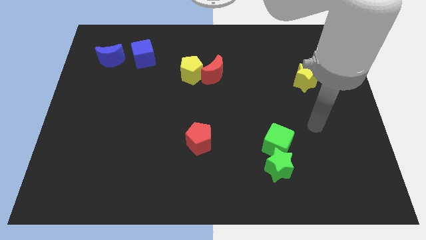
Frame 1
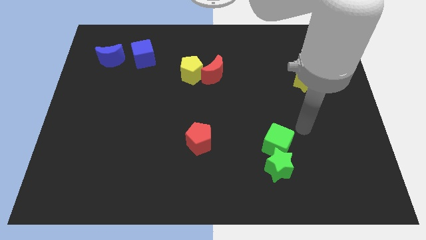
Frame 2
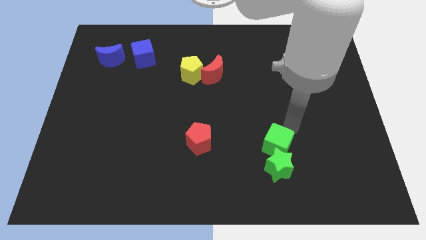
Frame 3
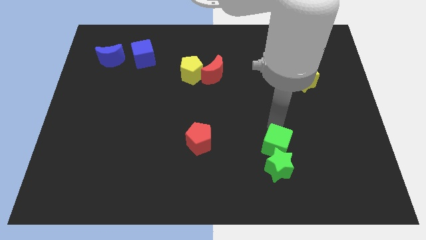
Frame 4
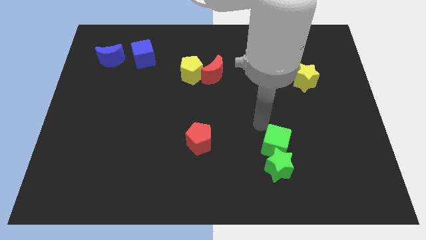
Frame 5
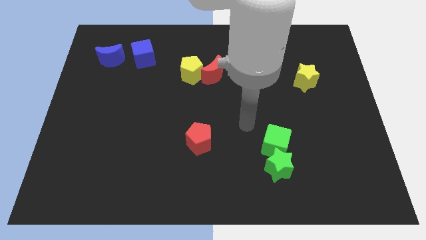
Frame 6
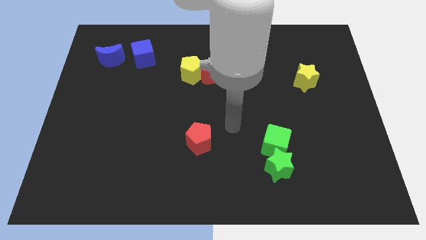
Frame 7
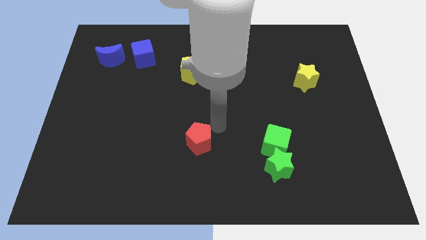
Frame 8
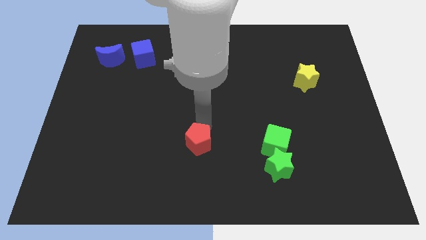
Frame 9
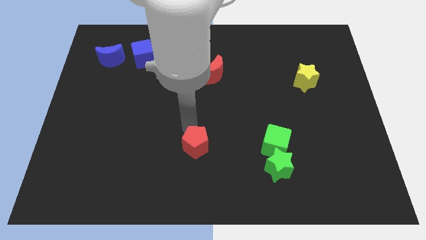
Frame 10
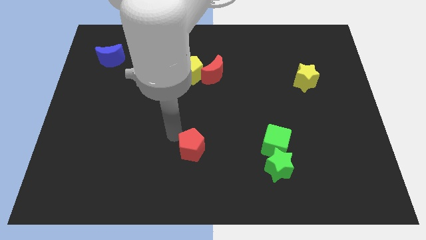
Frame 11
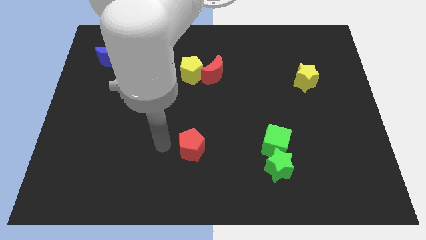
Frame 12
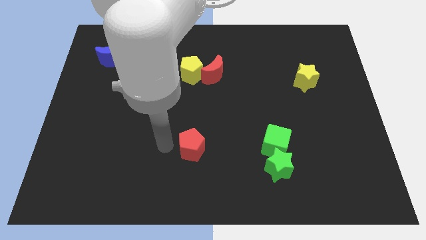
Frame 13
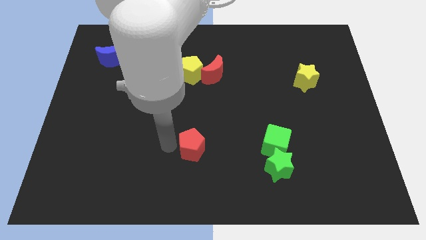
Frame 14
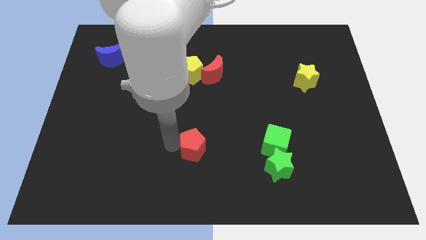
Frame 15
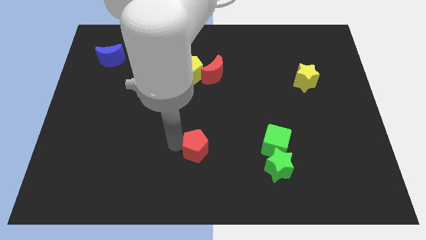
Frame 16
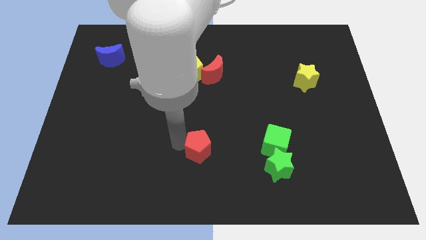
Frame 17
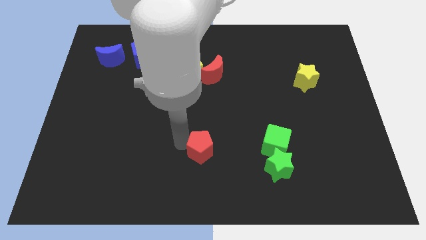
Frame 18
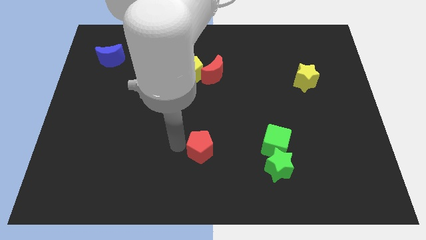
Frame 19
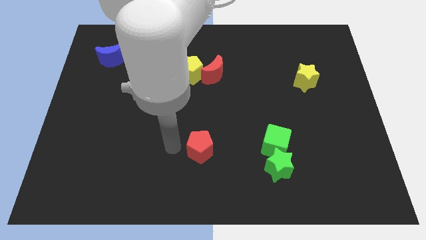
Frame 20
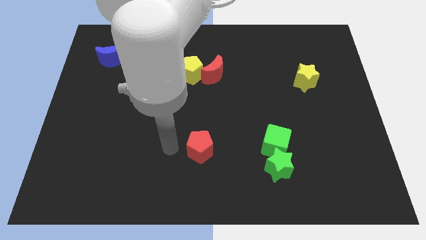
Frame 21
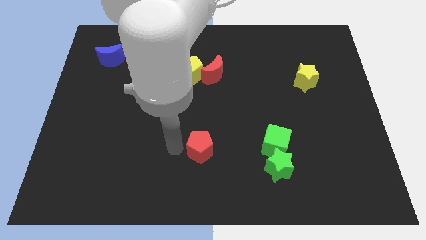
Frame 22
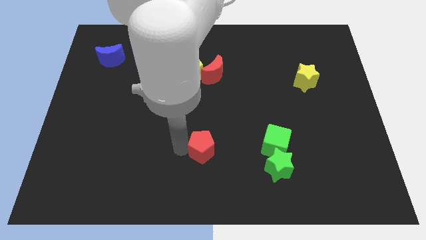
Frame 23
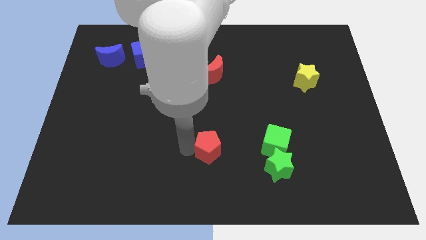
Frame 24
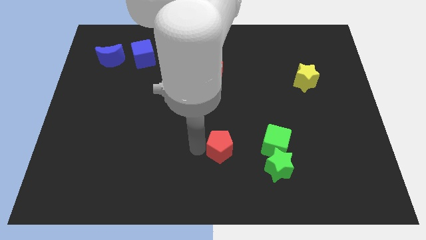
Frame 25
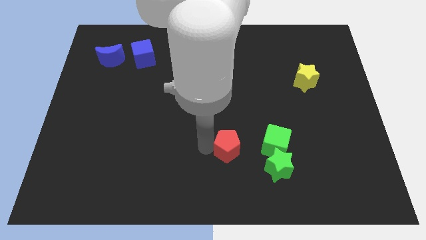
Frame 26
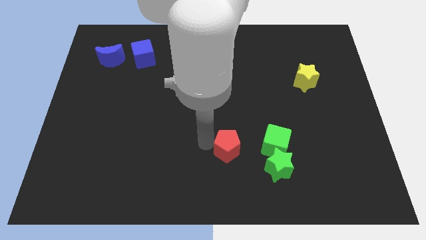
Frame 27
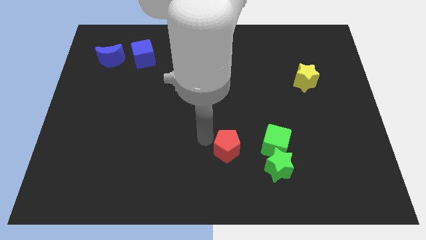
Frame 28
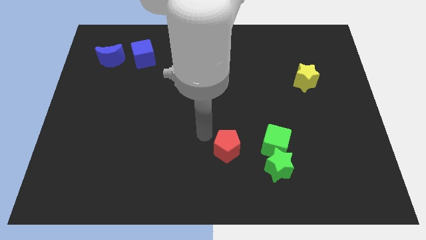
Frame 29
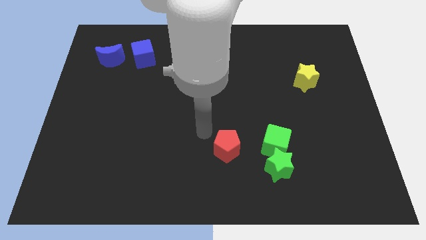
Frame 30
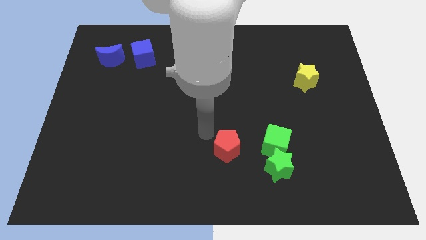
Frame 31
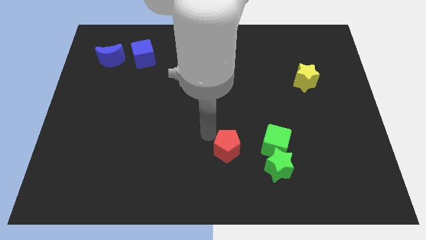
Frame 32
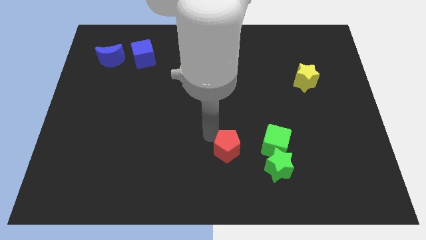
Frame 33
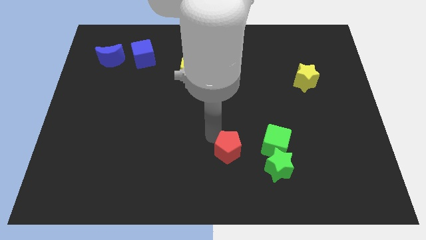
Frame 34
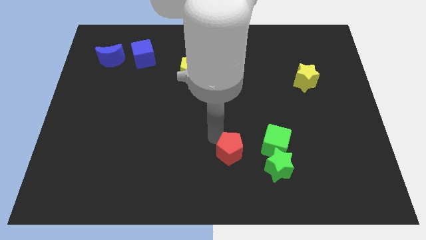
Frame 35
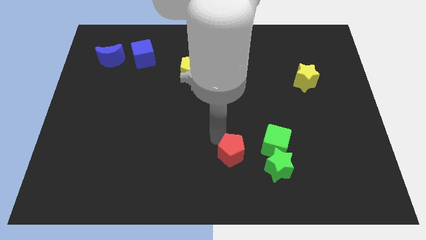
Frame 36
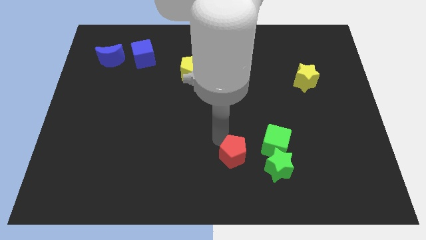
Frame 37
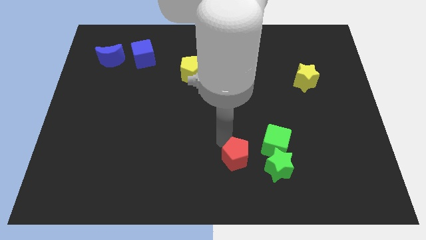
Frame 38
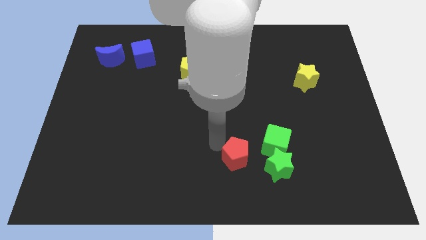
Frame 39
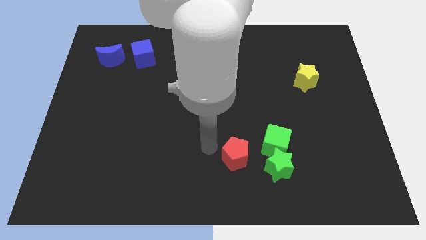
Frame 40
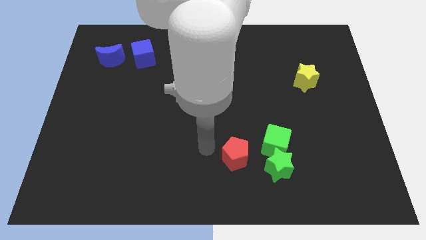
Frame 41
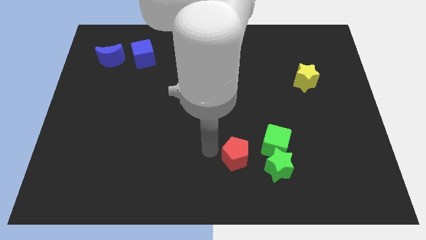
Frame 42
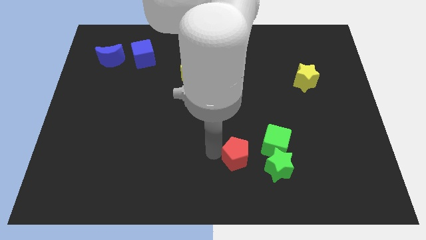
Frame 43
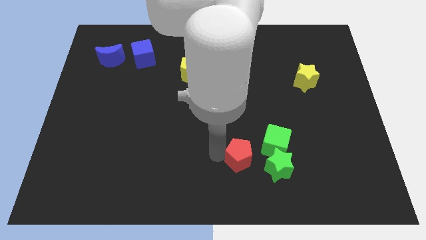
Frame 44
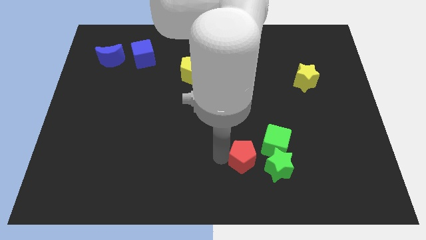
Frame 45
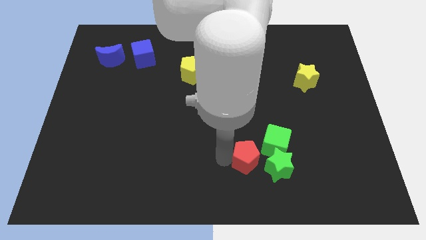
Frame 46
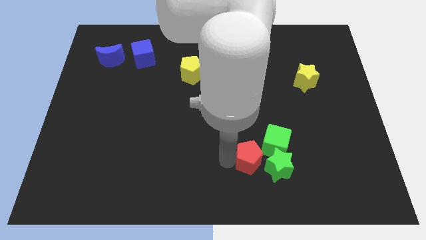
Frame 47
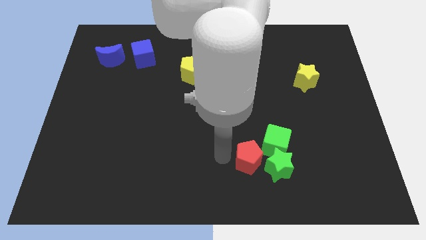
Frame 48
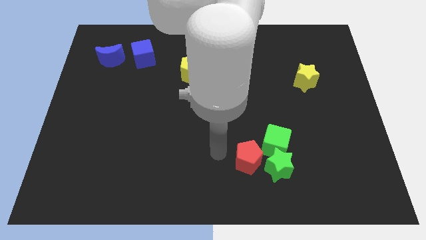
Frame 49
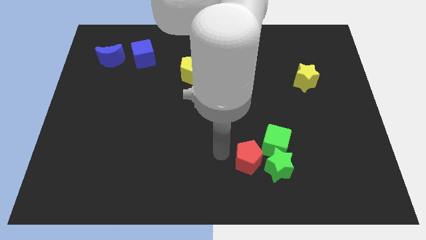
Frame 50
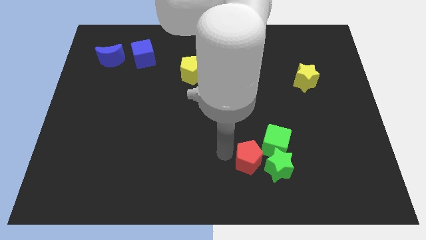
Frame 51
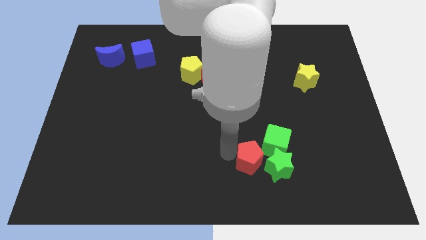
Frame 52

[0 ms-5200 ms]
put the red pentagon towards the green star

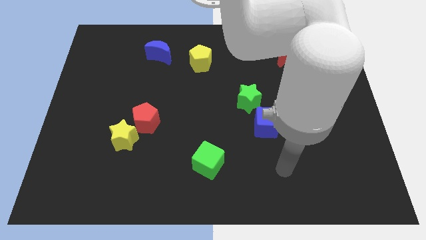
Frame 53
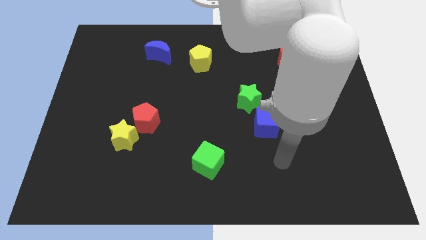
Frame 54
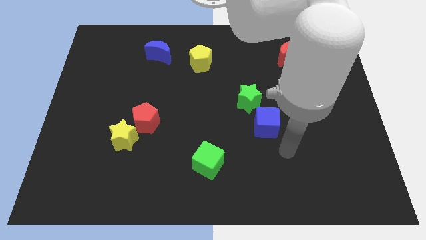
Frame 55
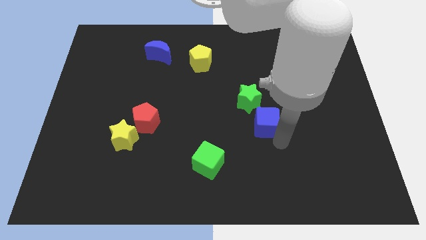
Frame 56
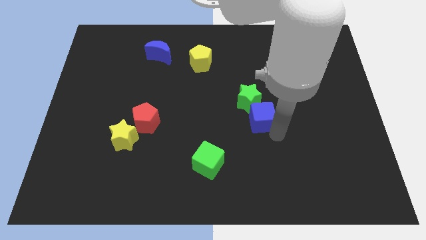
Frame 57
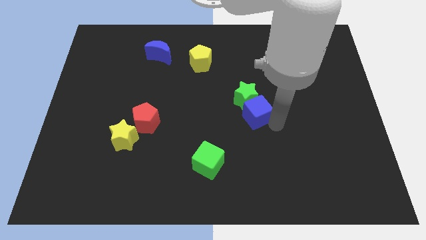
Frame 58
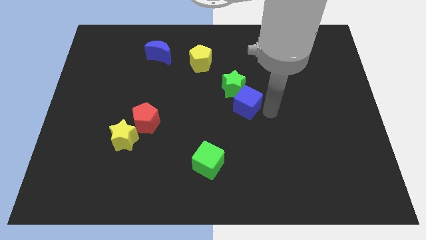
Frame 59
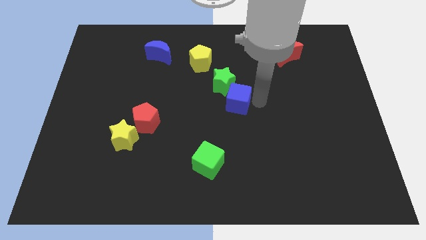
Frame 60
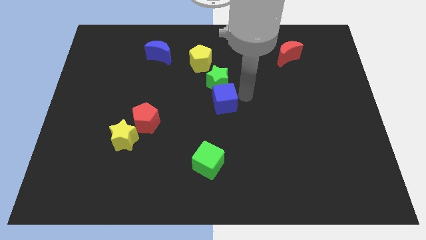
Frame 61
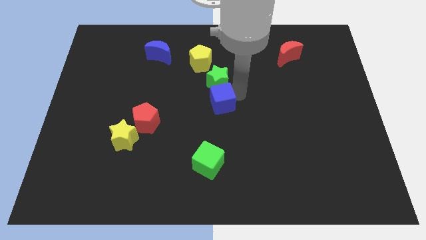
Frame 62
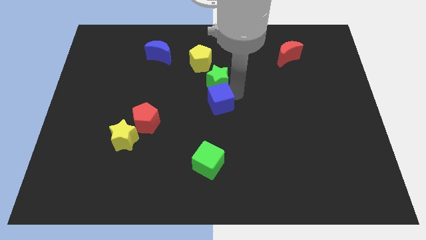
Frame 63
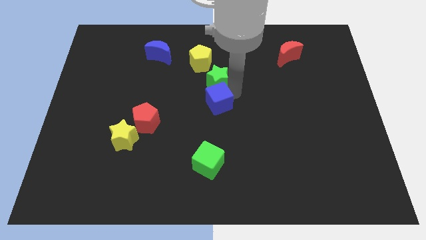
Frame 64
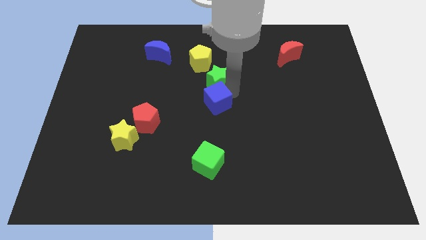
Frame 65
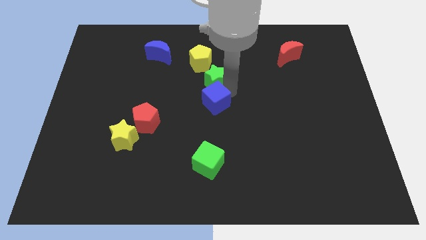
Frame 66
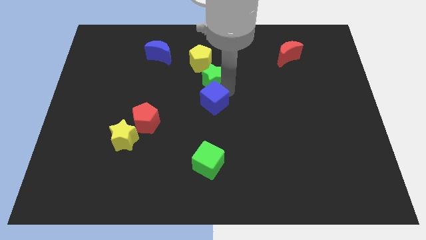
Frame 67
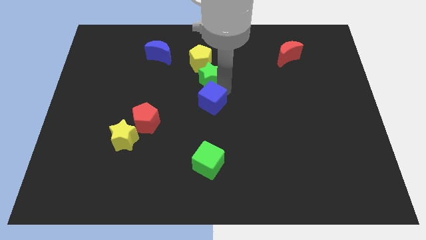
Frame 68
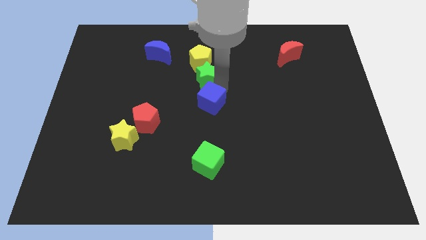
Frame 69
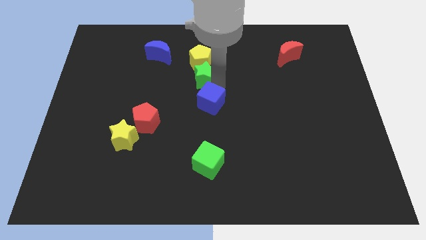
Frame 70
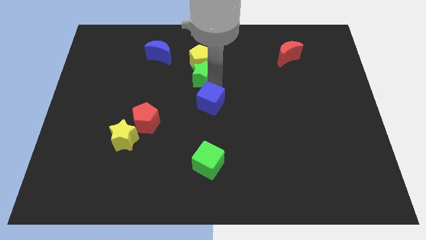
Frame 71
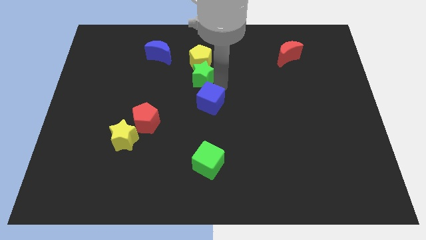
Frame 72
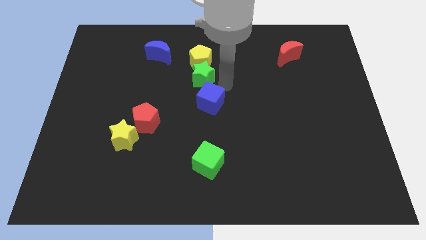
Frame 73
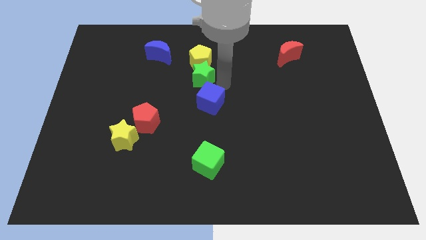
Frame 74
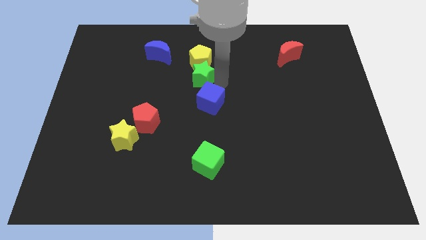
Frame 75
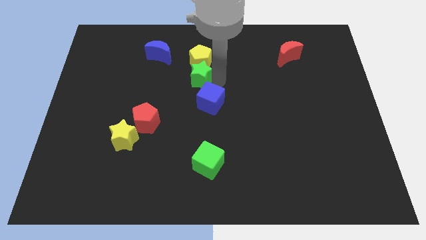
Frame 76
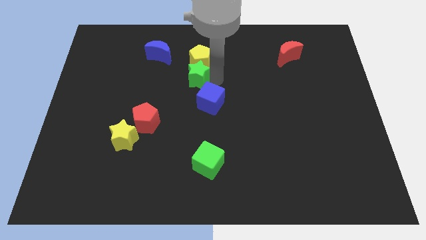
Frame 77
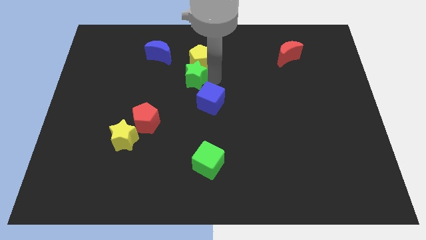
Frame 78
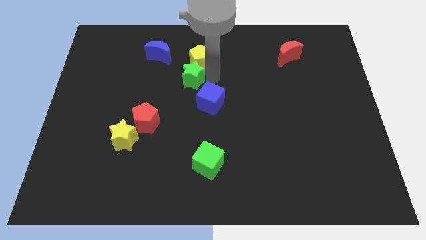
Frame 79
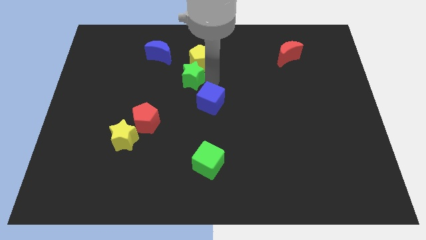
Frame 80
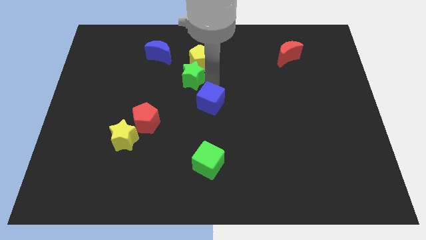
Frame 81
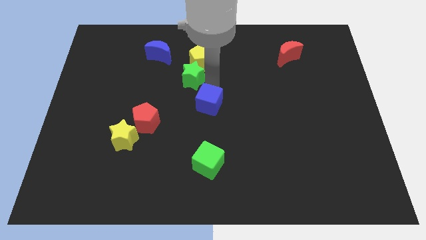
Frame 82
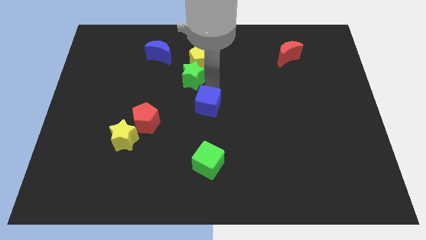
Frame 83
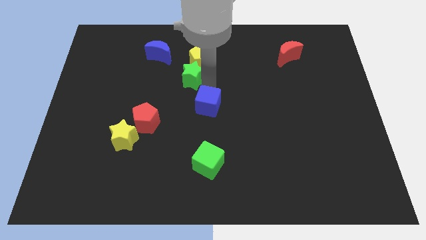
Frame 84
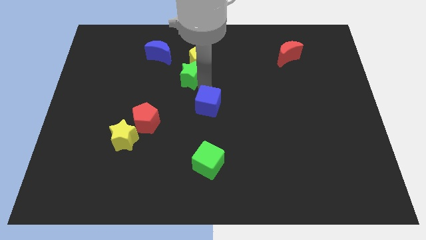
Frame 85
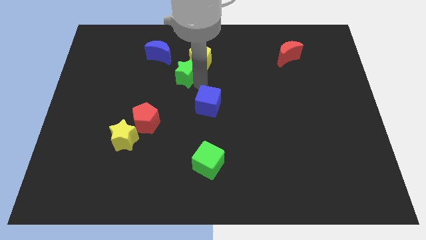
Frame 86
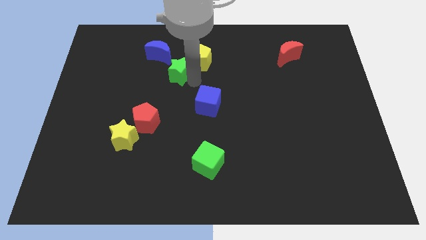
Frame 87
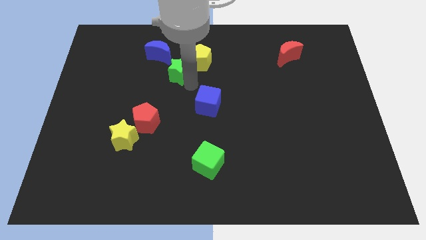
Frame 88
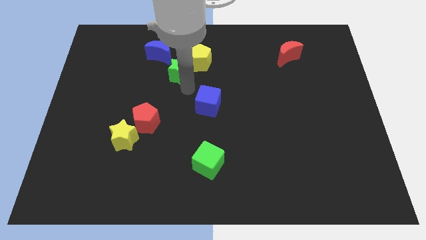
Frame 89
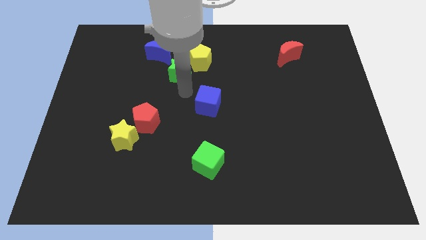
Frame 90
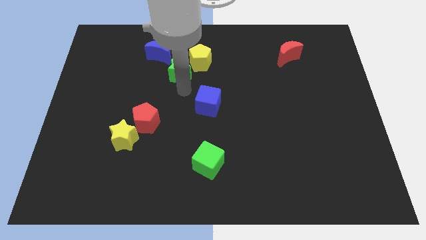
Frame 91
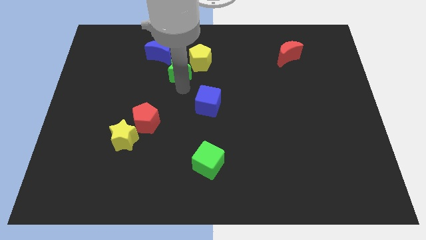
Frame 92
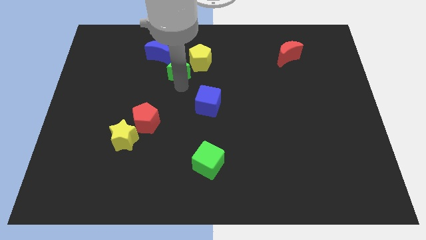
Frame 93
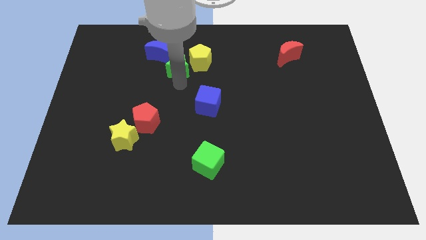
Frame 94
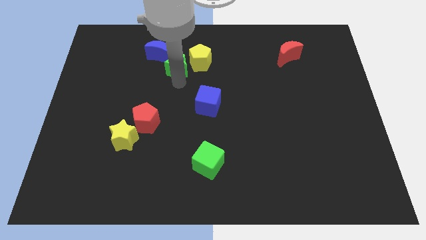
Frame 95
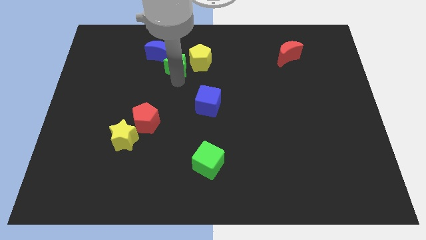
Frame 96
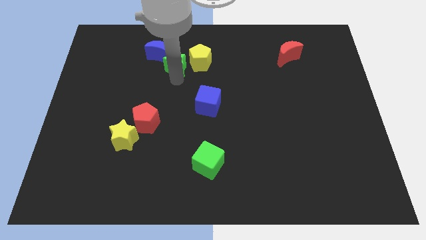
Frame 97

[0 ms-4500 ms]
slide the green star to the blue moon
